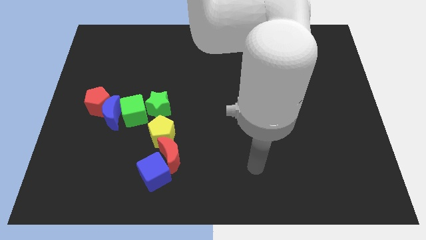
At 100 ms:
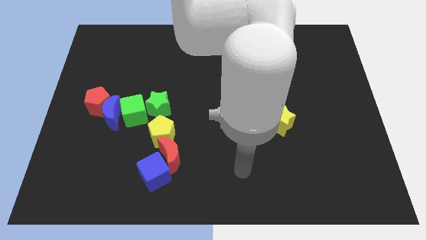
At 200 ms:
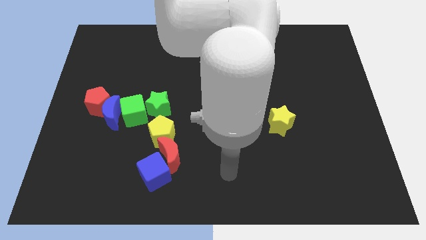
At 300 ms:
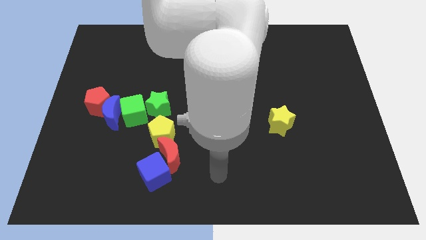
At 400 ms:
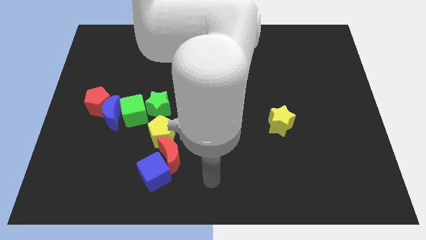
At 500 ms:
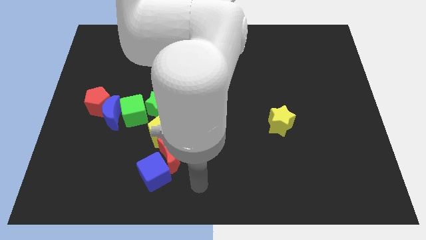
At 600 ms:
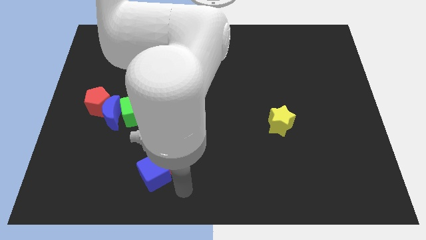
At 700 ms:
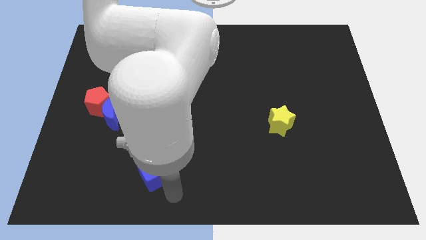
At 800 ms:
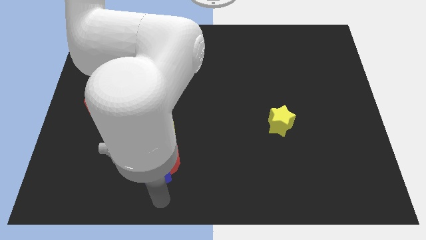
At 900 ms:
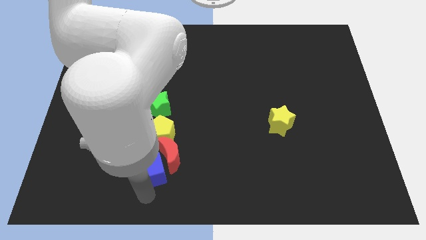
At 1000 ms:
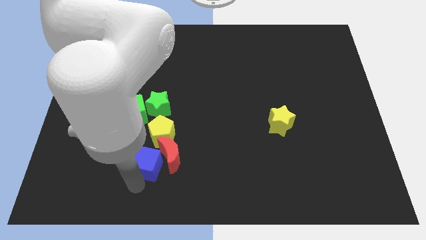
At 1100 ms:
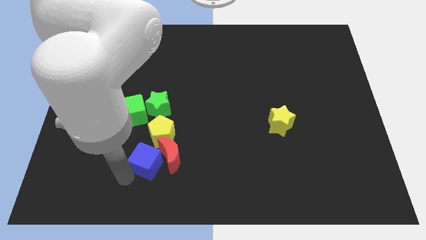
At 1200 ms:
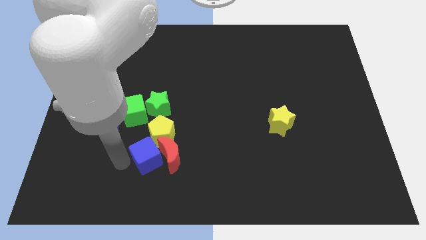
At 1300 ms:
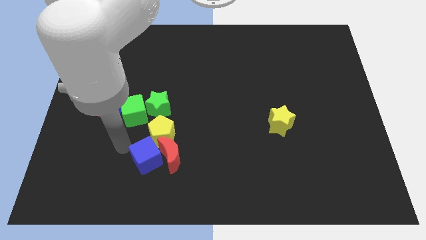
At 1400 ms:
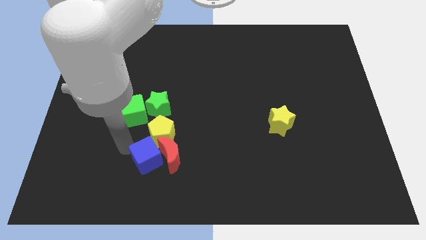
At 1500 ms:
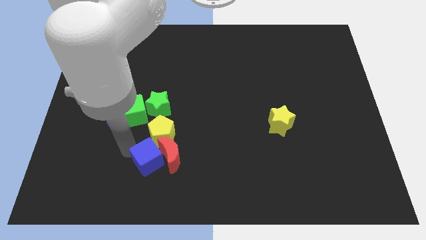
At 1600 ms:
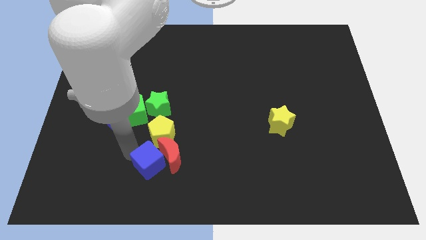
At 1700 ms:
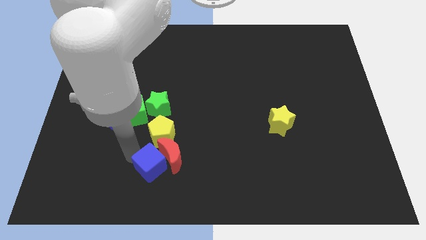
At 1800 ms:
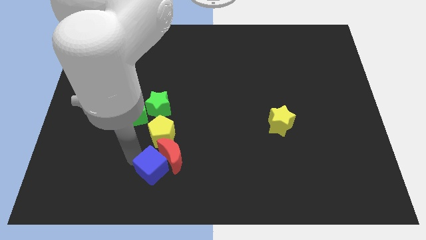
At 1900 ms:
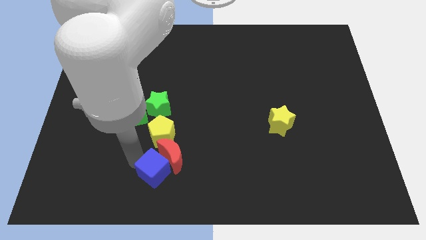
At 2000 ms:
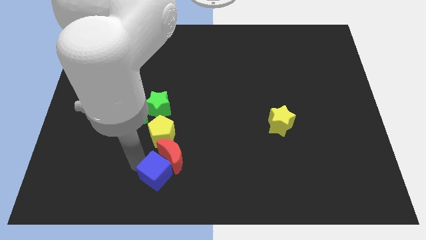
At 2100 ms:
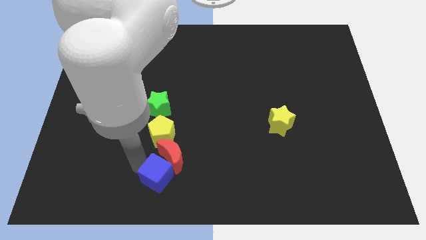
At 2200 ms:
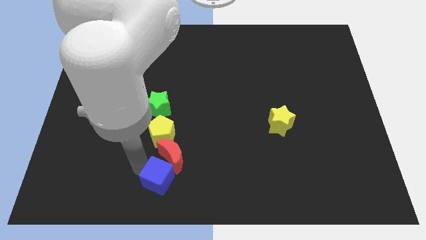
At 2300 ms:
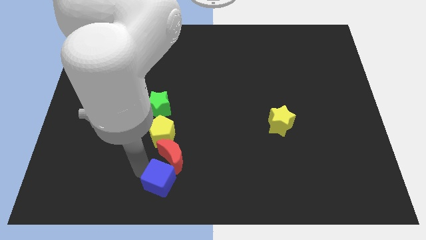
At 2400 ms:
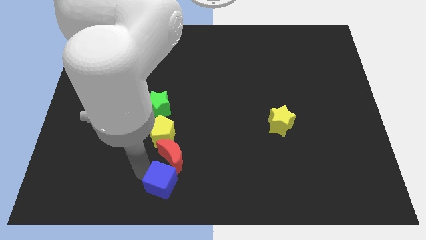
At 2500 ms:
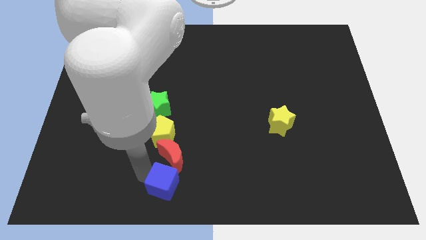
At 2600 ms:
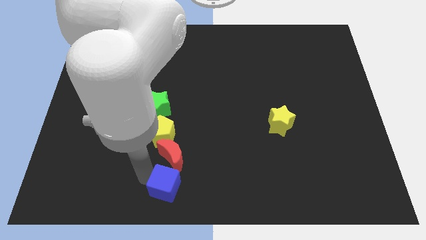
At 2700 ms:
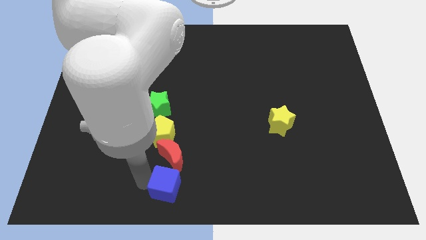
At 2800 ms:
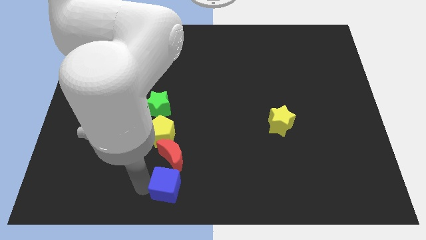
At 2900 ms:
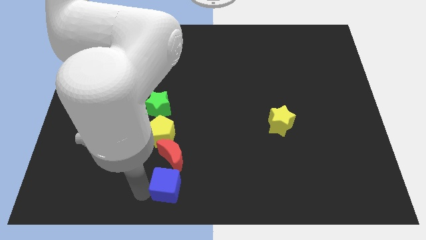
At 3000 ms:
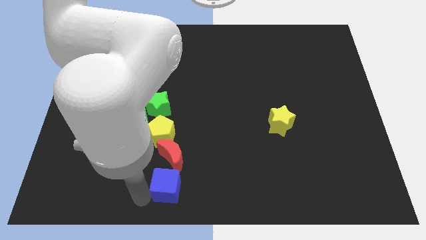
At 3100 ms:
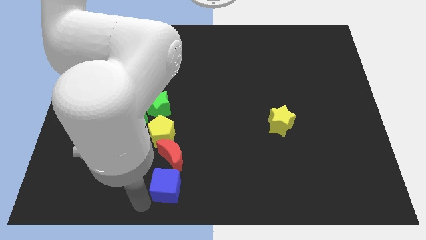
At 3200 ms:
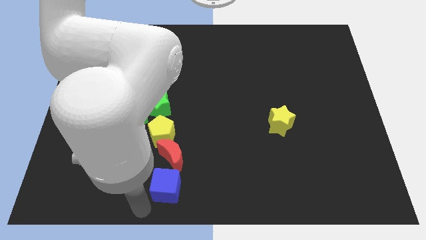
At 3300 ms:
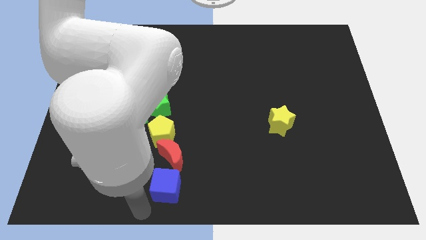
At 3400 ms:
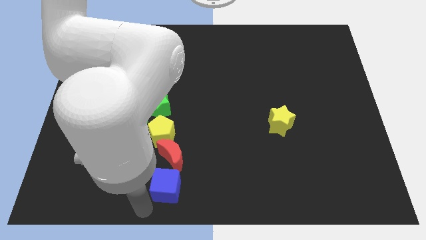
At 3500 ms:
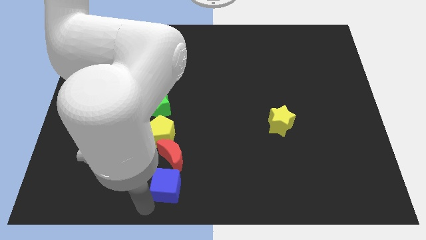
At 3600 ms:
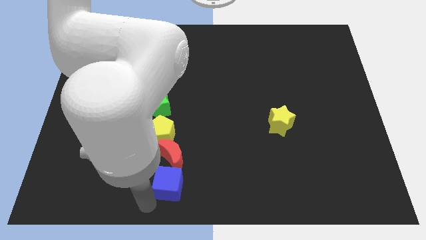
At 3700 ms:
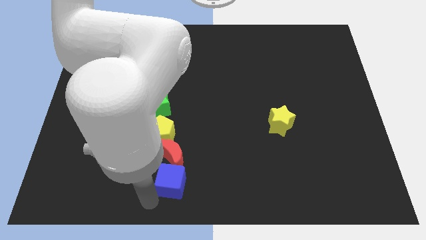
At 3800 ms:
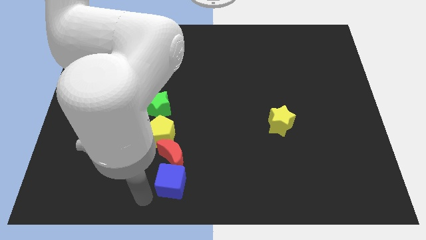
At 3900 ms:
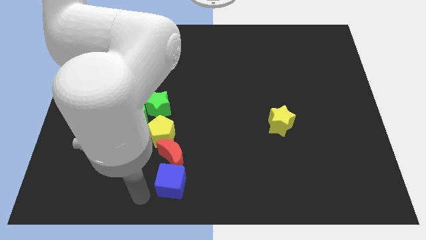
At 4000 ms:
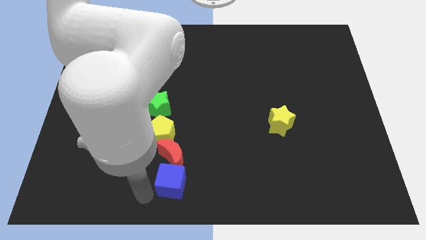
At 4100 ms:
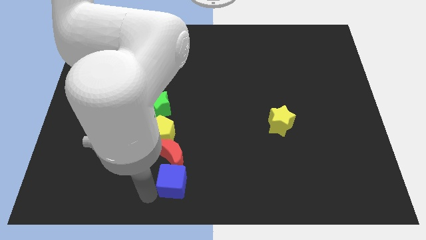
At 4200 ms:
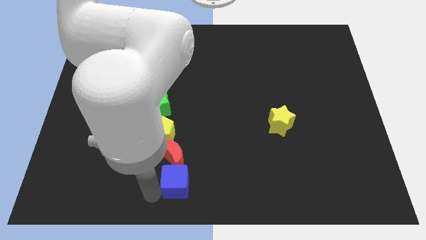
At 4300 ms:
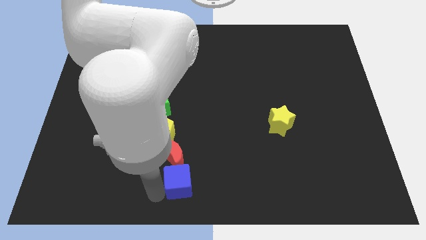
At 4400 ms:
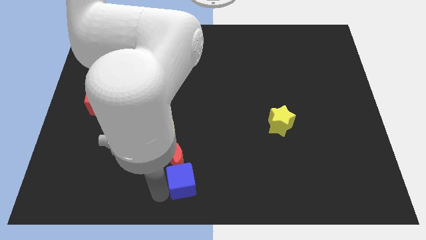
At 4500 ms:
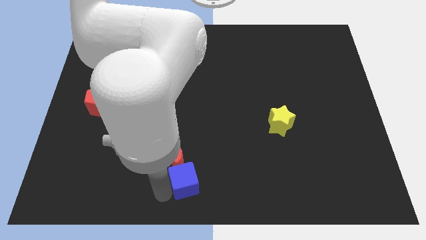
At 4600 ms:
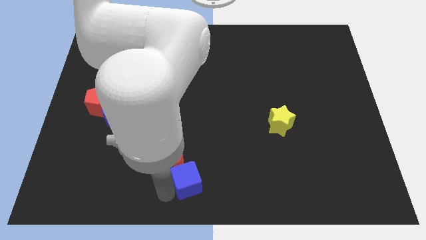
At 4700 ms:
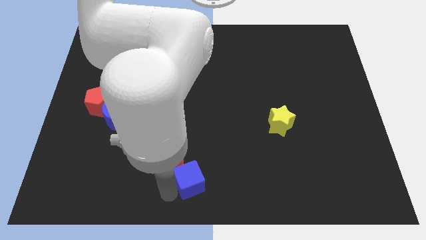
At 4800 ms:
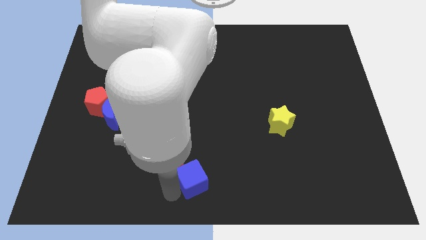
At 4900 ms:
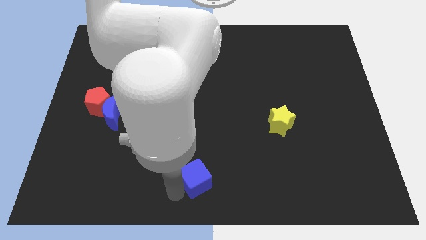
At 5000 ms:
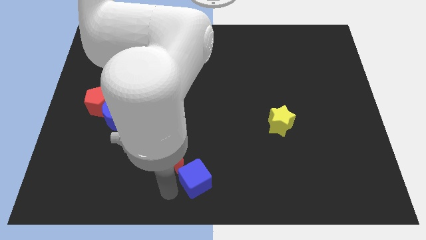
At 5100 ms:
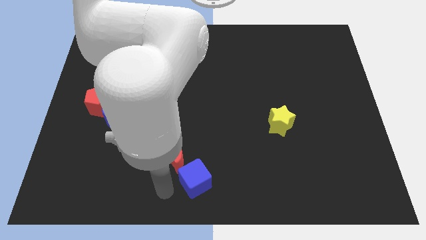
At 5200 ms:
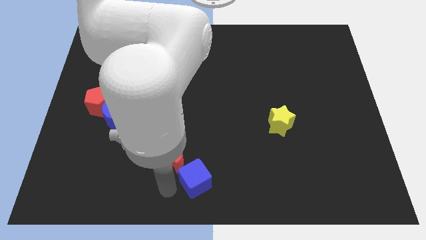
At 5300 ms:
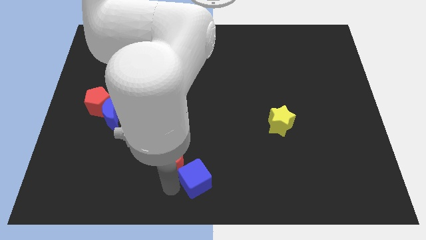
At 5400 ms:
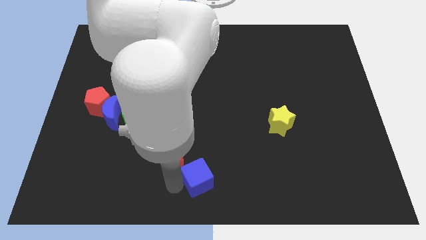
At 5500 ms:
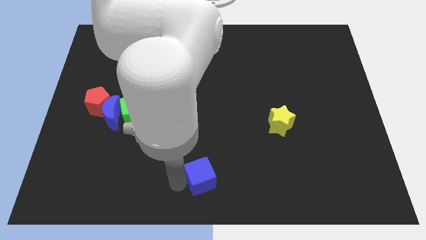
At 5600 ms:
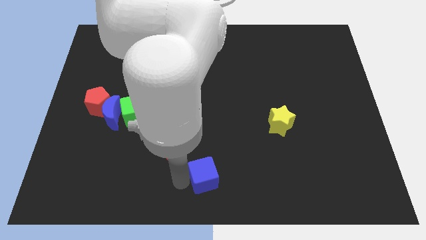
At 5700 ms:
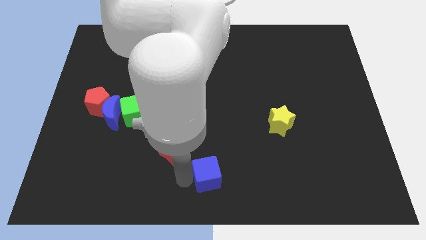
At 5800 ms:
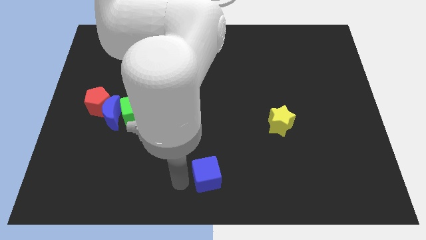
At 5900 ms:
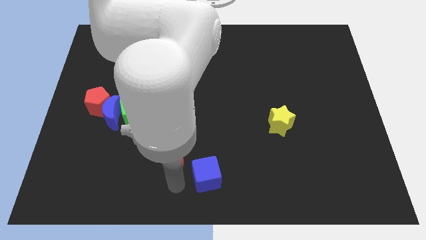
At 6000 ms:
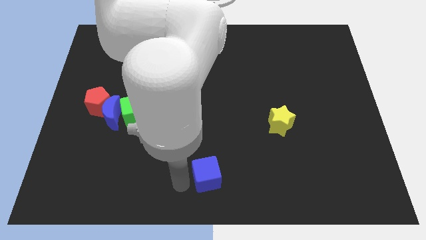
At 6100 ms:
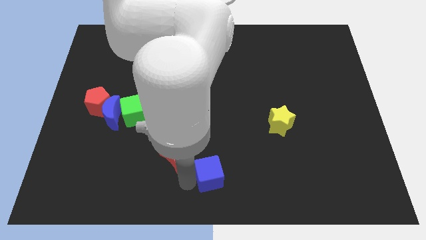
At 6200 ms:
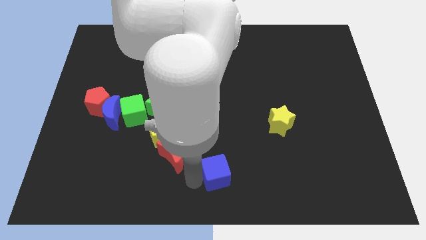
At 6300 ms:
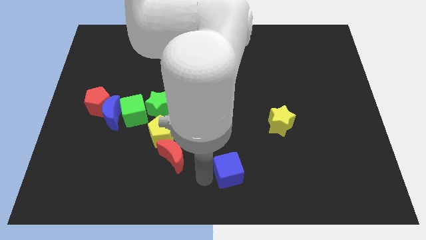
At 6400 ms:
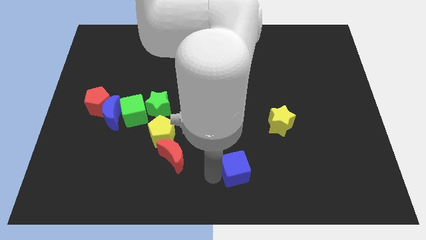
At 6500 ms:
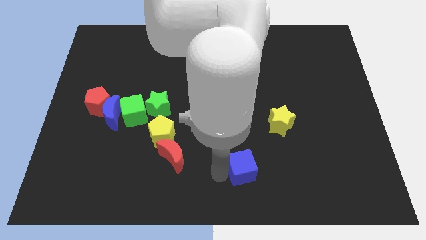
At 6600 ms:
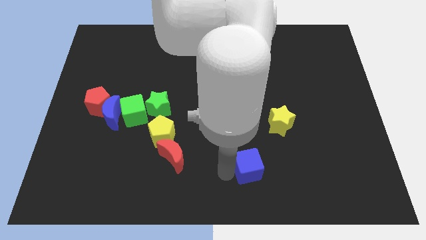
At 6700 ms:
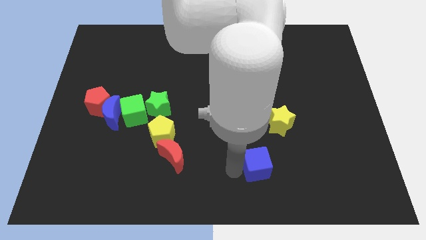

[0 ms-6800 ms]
move the blue cube to the right

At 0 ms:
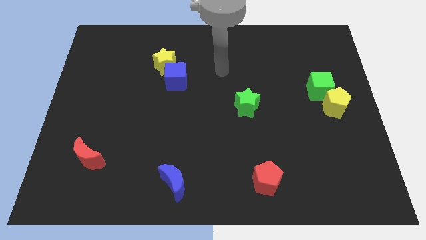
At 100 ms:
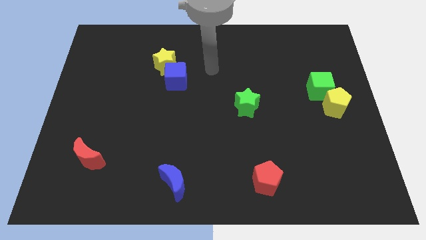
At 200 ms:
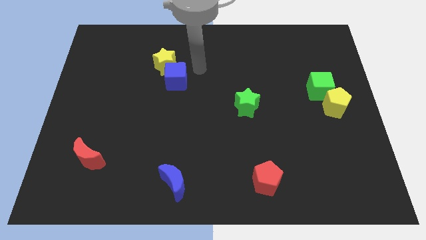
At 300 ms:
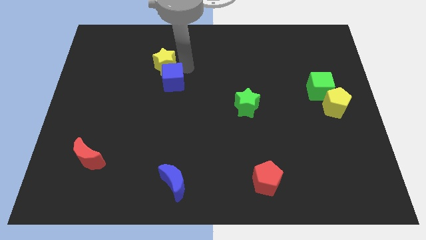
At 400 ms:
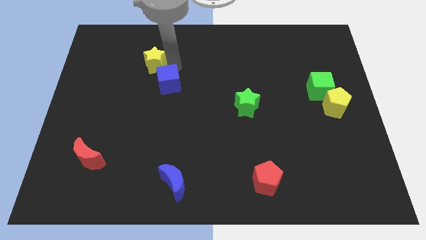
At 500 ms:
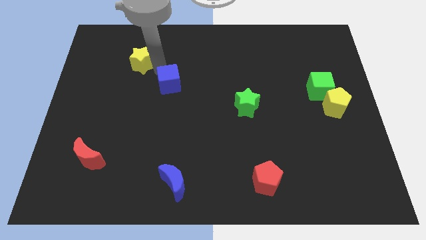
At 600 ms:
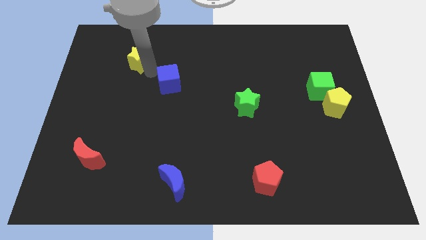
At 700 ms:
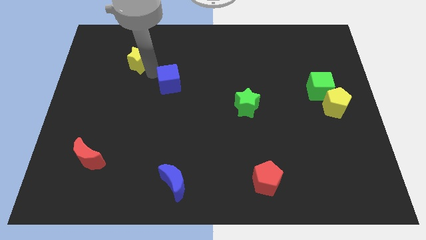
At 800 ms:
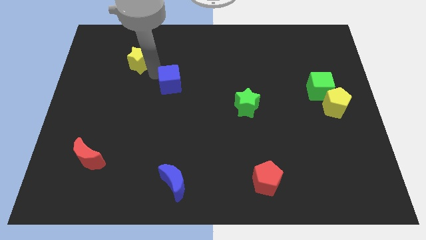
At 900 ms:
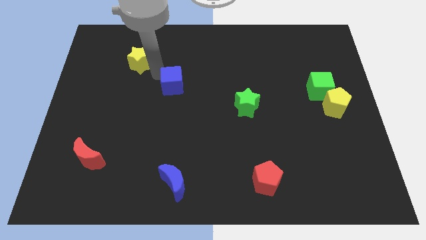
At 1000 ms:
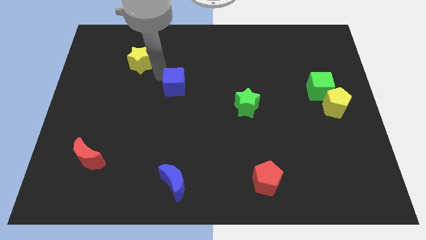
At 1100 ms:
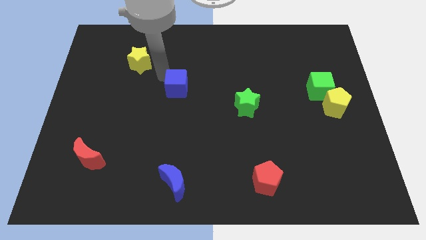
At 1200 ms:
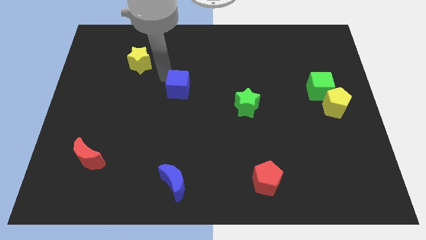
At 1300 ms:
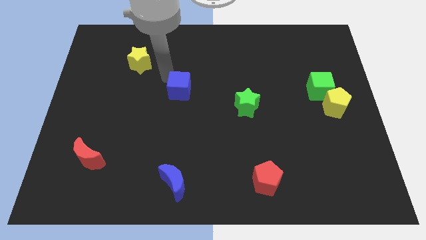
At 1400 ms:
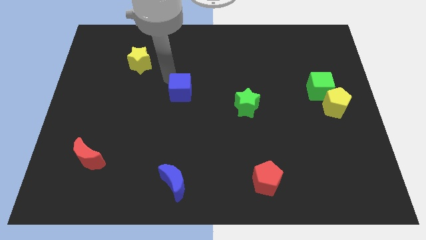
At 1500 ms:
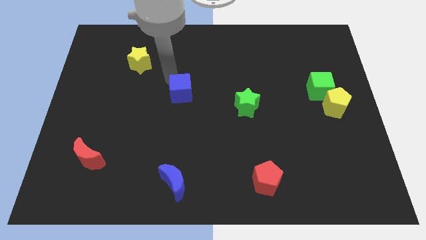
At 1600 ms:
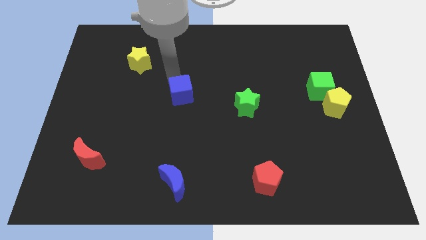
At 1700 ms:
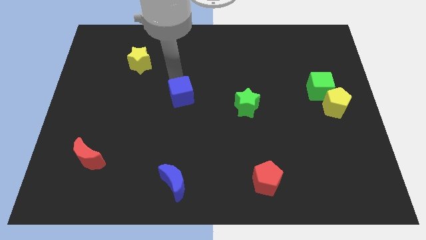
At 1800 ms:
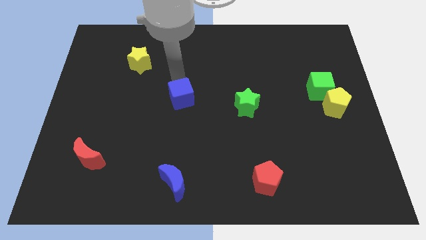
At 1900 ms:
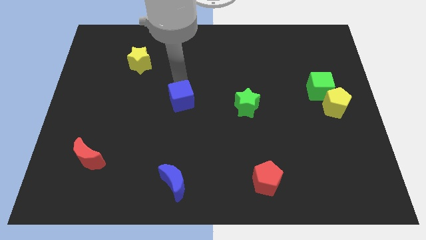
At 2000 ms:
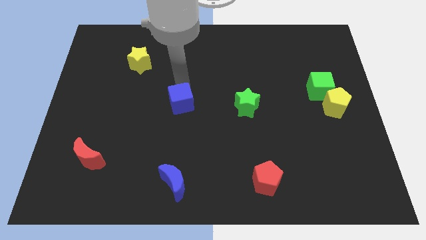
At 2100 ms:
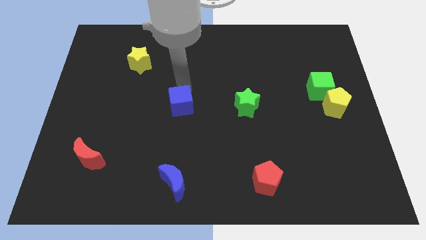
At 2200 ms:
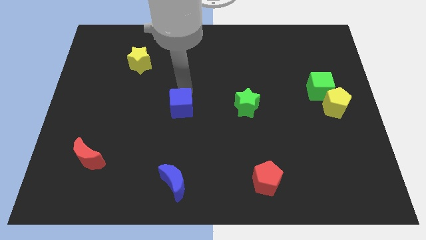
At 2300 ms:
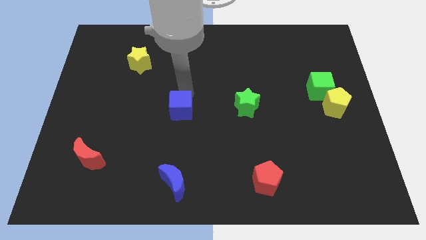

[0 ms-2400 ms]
push the blue cube a little down and right
